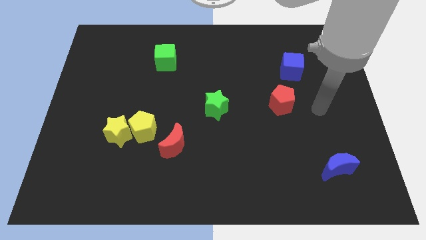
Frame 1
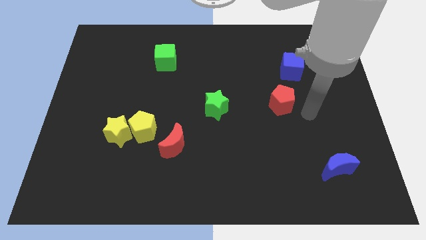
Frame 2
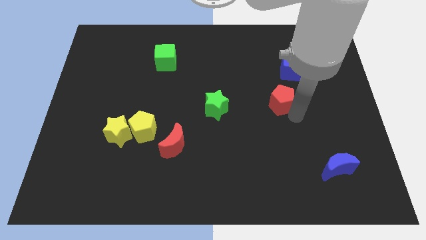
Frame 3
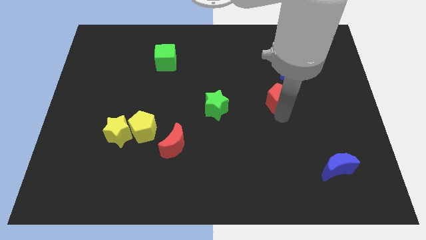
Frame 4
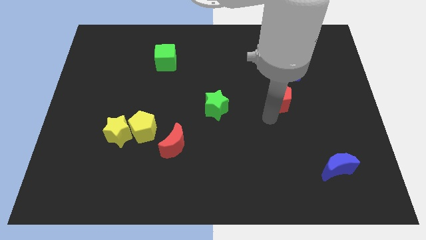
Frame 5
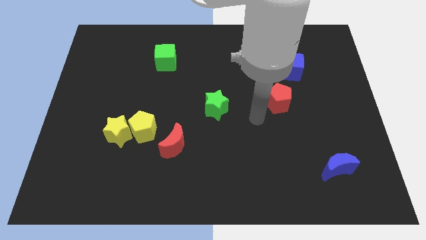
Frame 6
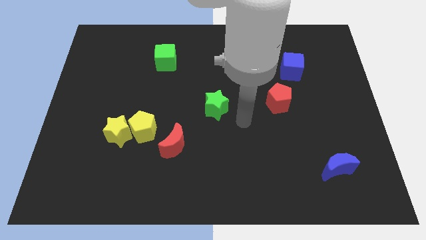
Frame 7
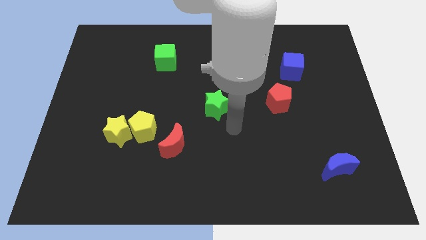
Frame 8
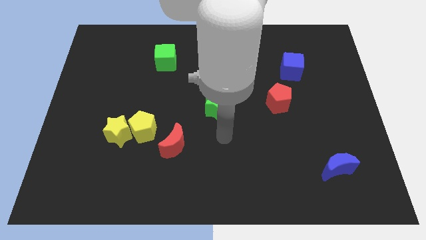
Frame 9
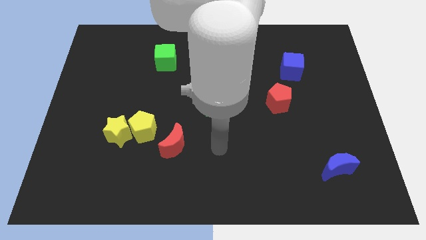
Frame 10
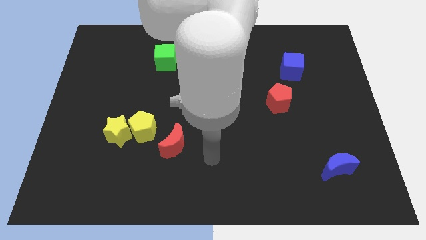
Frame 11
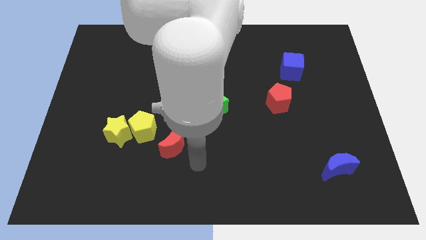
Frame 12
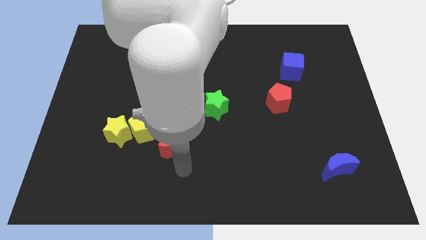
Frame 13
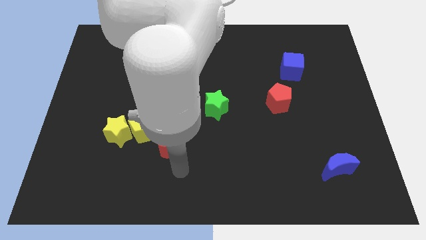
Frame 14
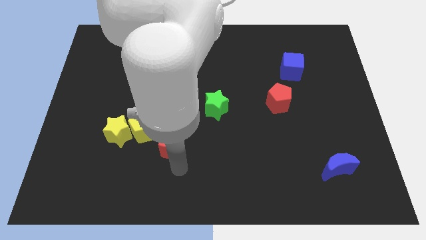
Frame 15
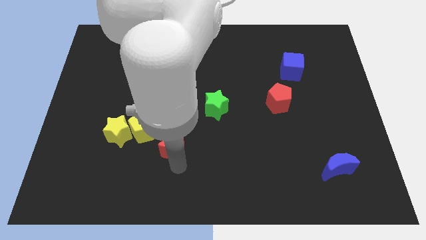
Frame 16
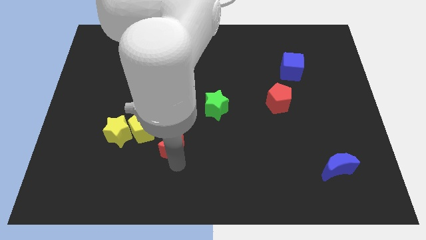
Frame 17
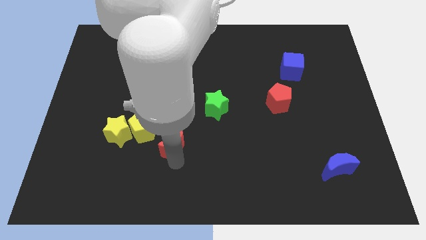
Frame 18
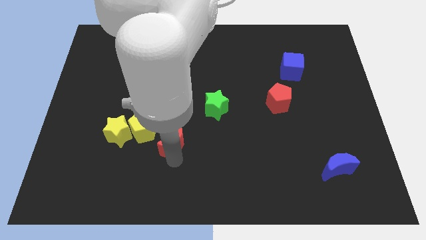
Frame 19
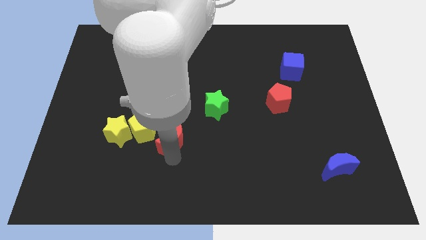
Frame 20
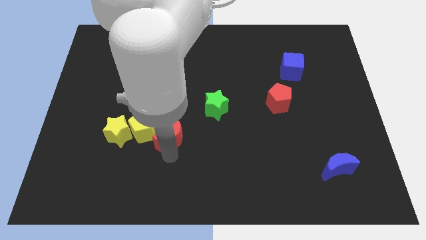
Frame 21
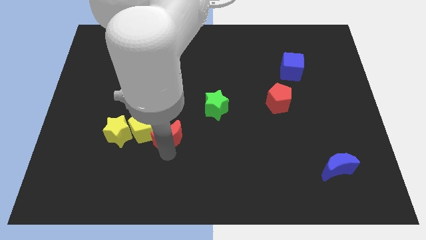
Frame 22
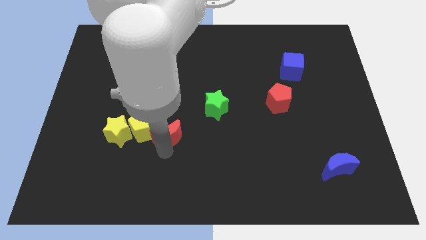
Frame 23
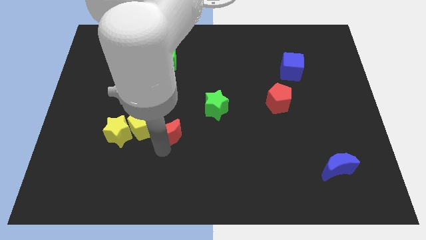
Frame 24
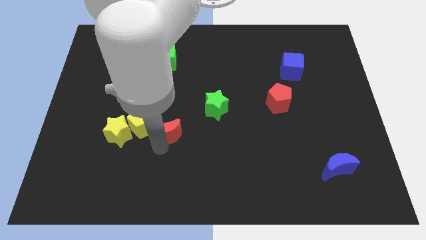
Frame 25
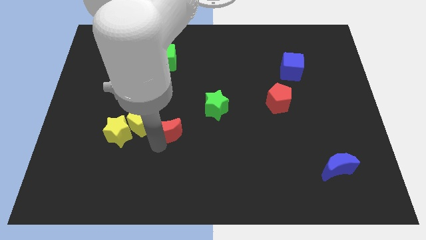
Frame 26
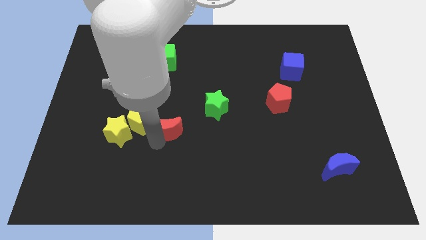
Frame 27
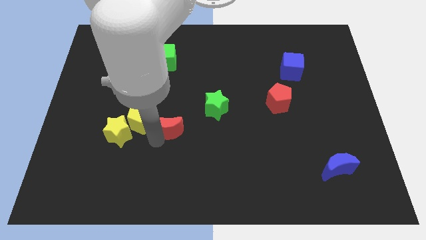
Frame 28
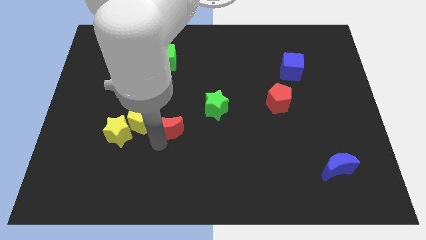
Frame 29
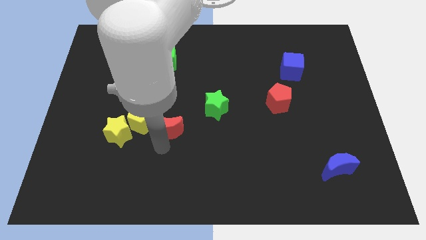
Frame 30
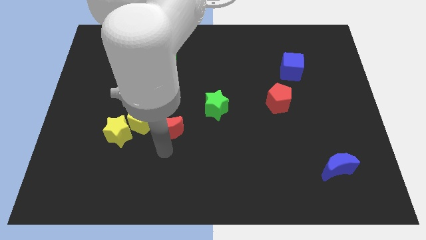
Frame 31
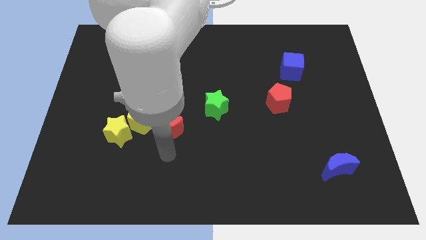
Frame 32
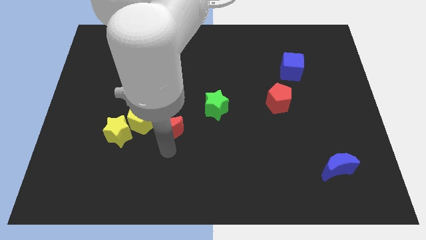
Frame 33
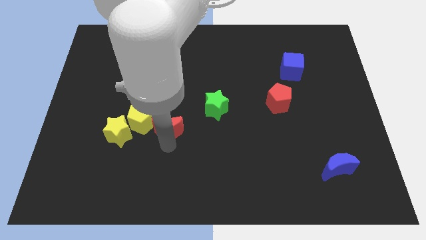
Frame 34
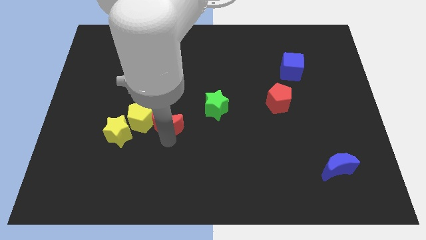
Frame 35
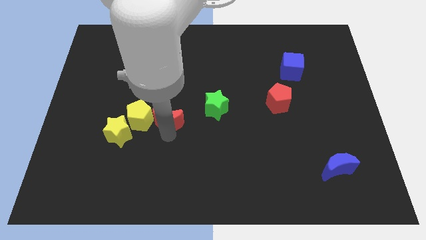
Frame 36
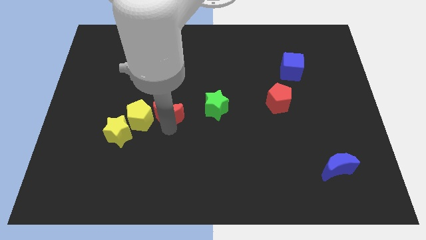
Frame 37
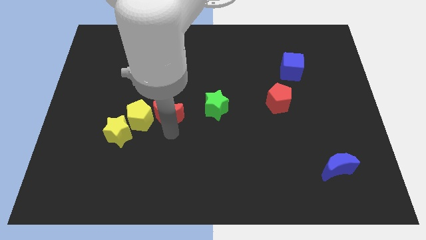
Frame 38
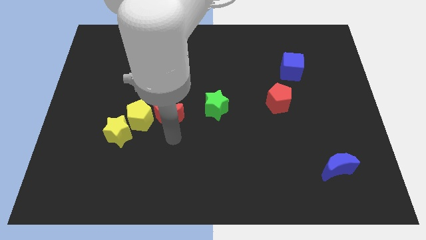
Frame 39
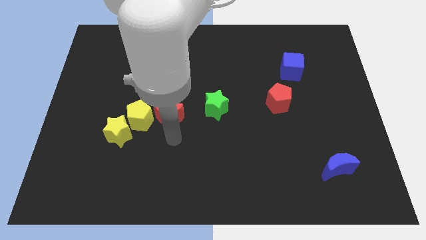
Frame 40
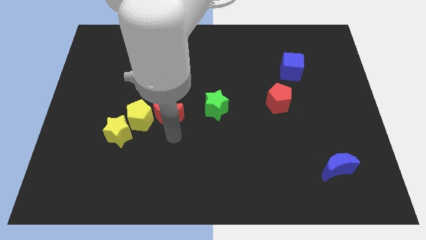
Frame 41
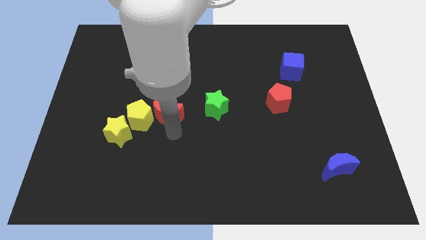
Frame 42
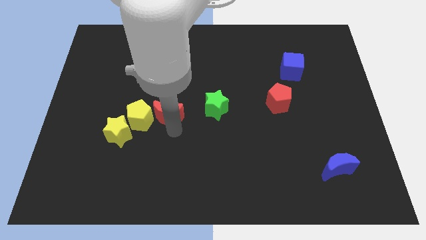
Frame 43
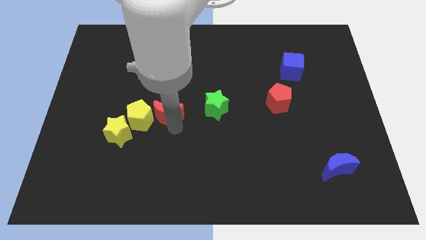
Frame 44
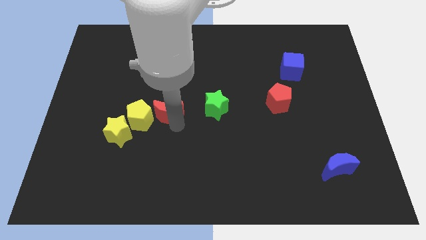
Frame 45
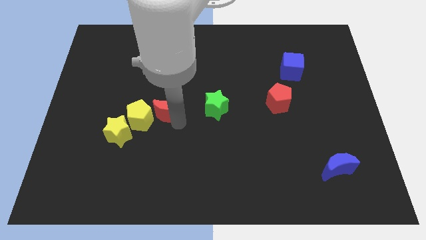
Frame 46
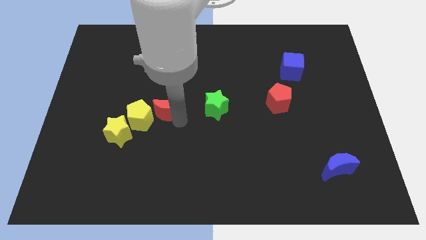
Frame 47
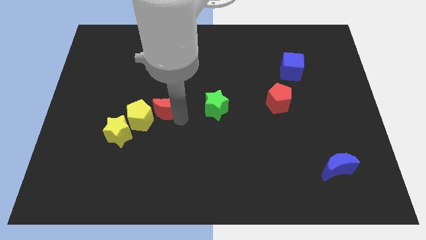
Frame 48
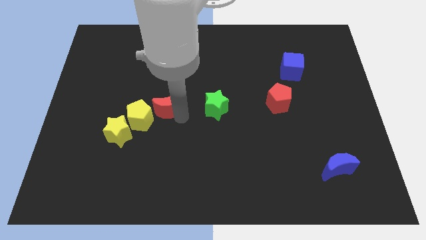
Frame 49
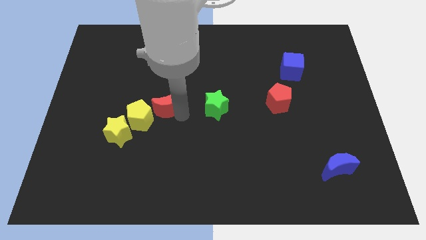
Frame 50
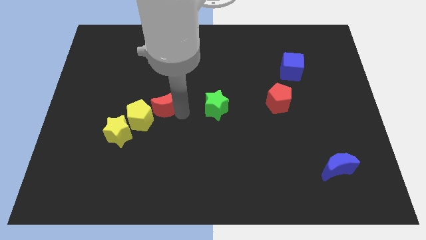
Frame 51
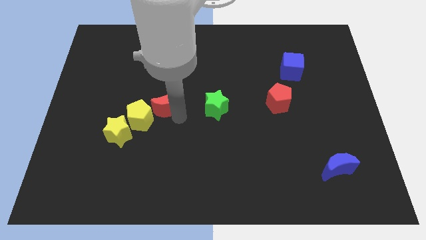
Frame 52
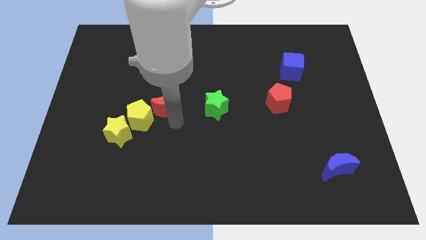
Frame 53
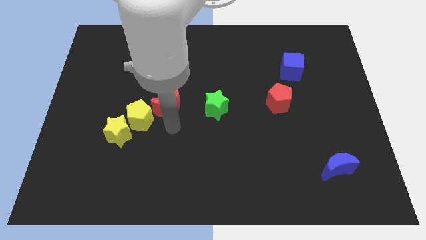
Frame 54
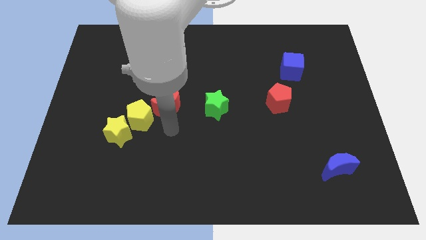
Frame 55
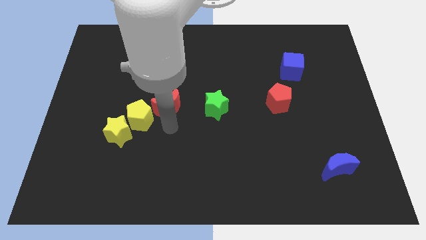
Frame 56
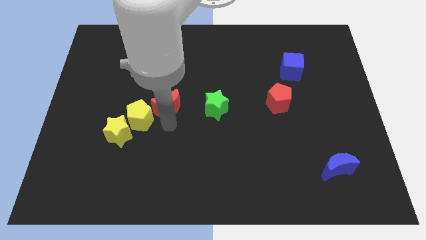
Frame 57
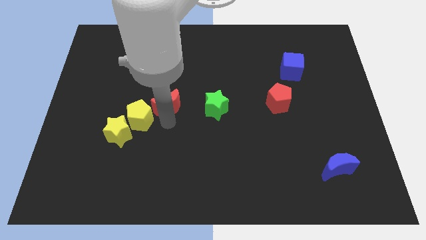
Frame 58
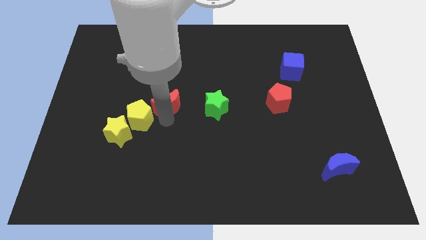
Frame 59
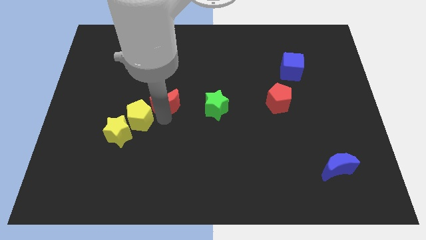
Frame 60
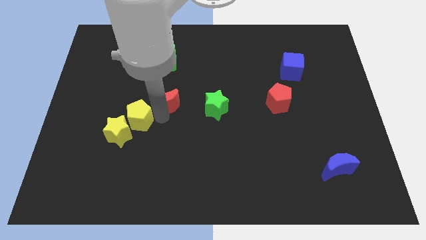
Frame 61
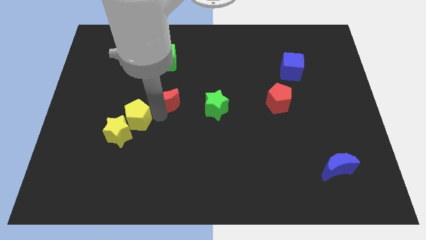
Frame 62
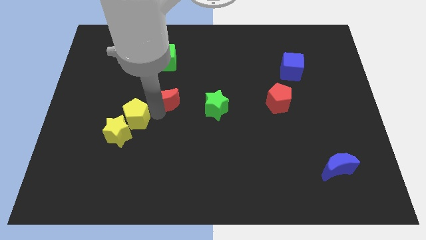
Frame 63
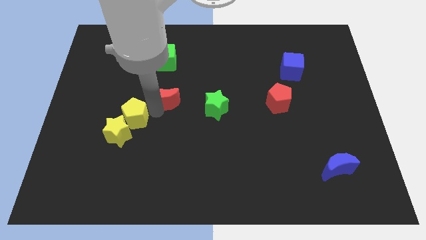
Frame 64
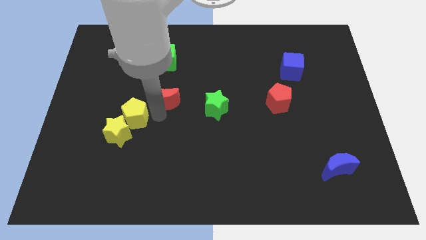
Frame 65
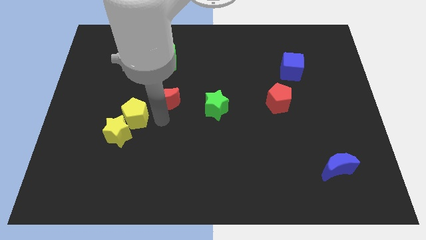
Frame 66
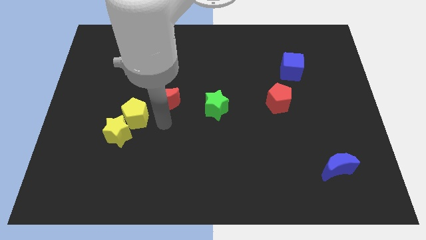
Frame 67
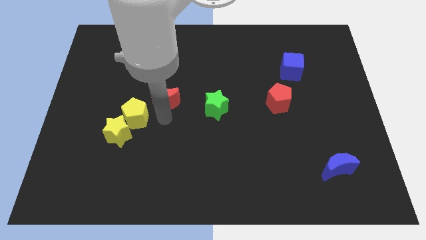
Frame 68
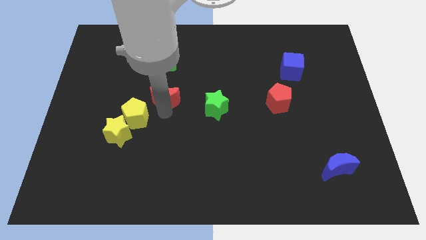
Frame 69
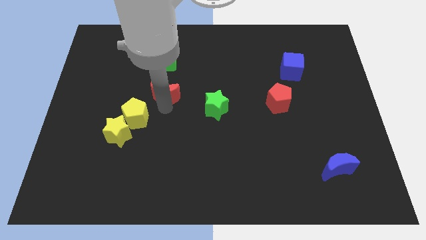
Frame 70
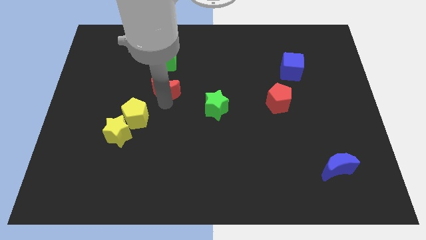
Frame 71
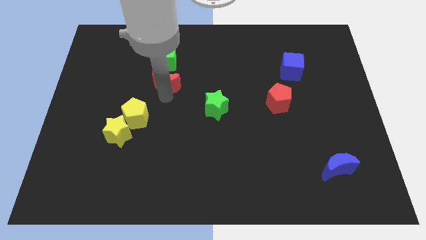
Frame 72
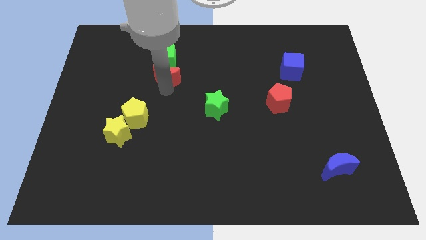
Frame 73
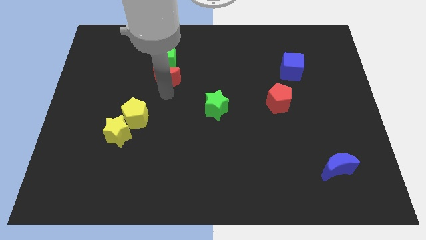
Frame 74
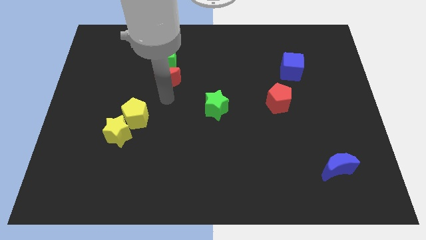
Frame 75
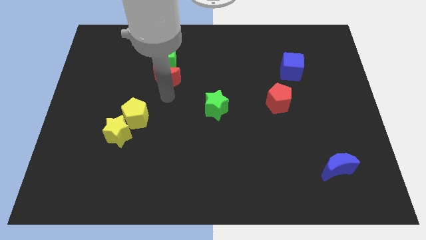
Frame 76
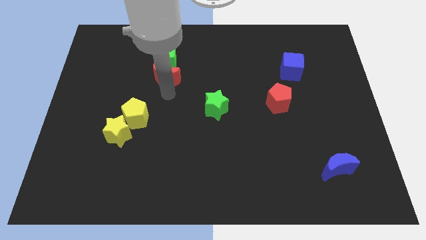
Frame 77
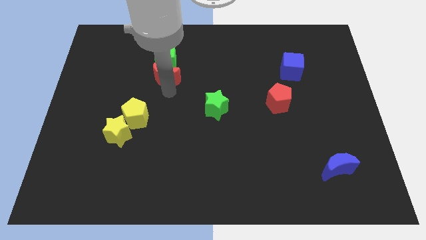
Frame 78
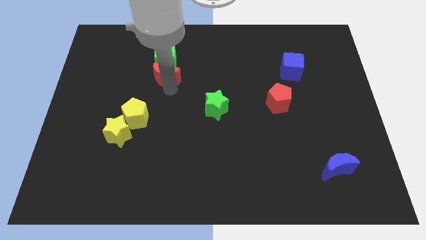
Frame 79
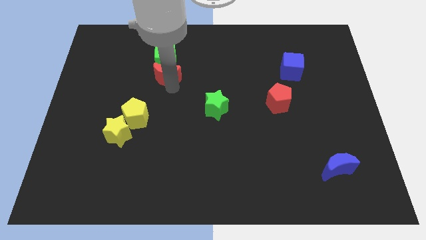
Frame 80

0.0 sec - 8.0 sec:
push the red moon next to the green cube
